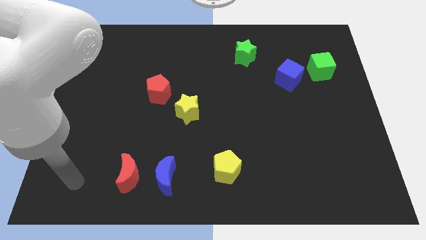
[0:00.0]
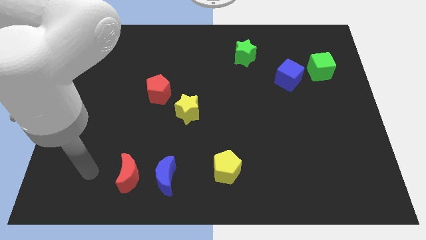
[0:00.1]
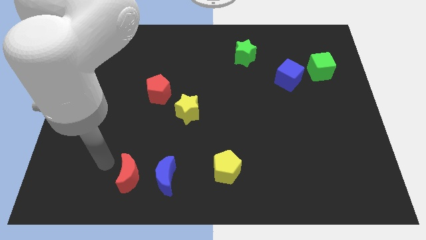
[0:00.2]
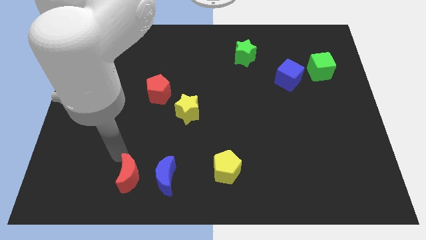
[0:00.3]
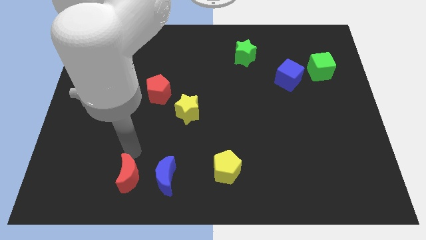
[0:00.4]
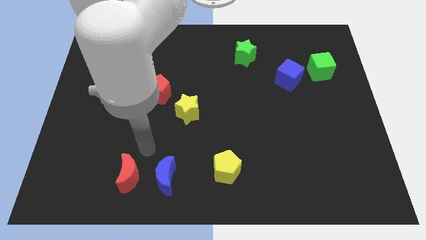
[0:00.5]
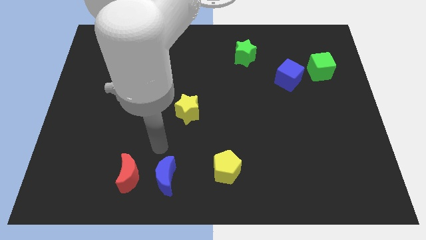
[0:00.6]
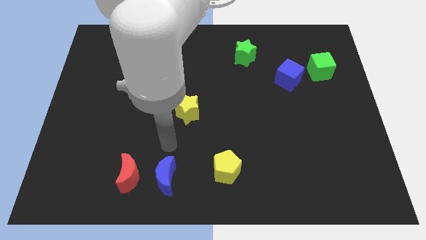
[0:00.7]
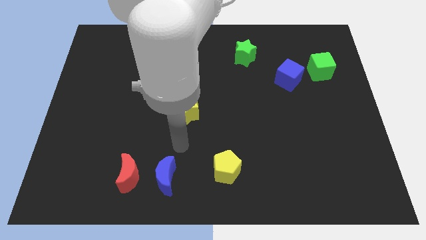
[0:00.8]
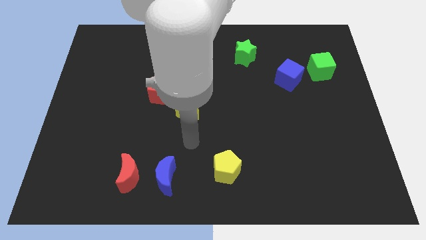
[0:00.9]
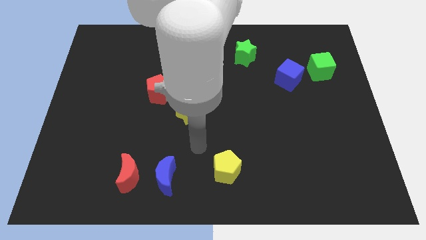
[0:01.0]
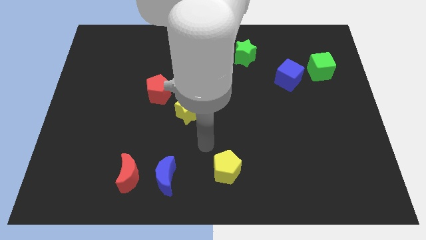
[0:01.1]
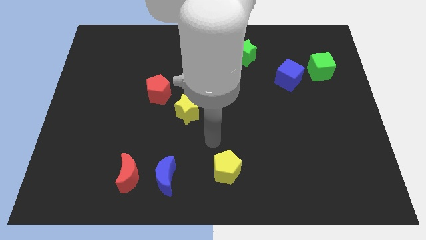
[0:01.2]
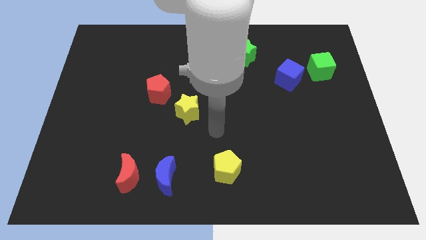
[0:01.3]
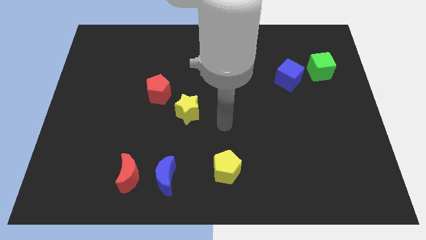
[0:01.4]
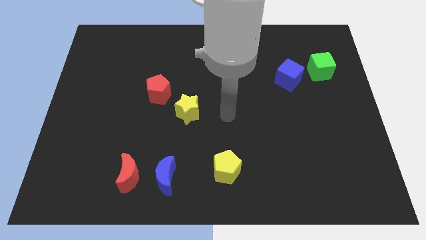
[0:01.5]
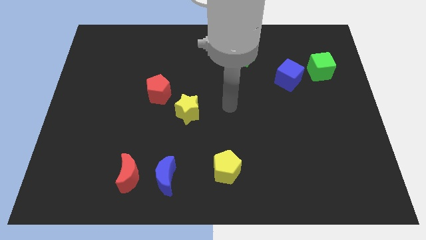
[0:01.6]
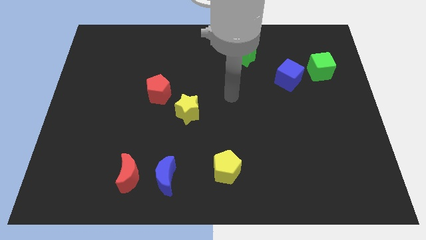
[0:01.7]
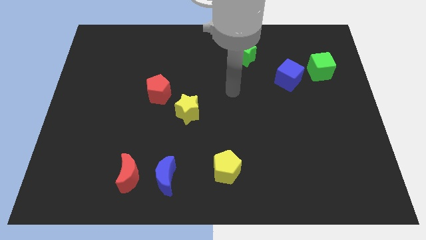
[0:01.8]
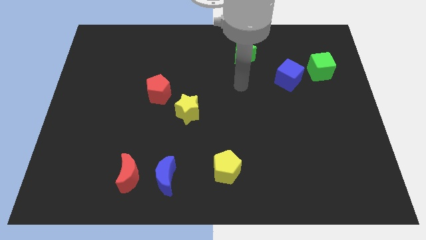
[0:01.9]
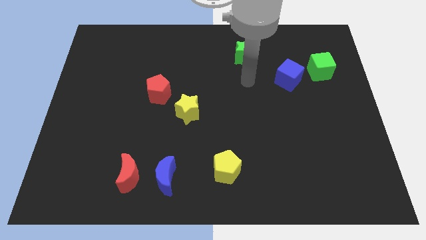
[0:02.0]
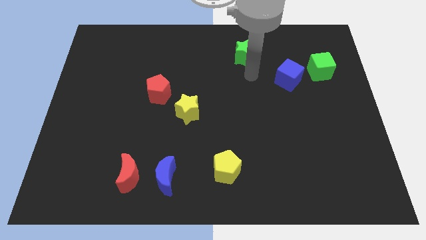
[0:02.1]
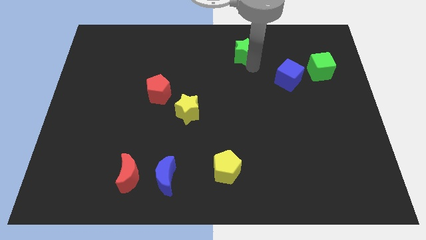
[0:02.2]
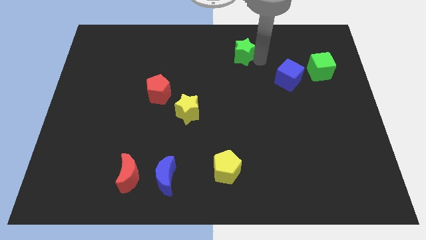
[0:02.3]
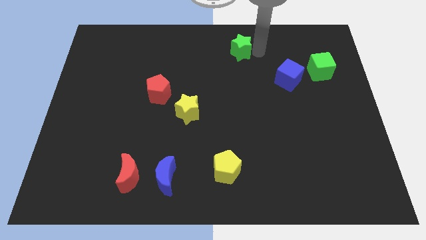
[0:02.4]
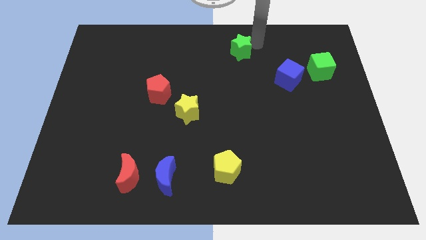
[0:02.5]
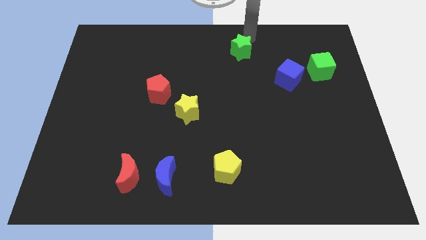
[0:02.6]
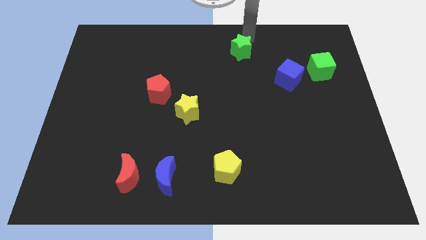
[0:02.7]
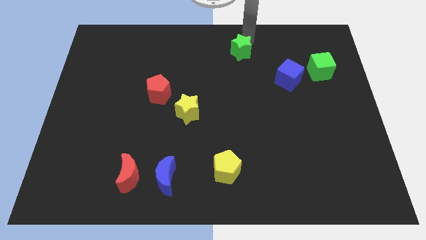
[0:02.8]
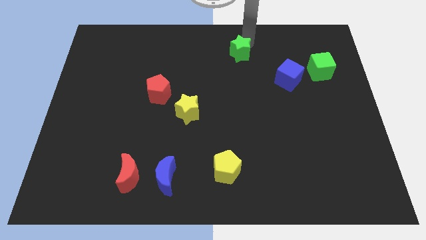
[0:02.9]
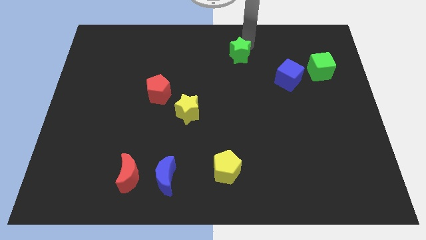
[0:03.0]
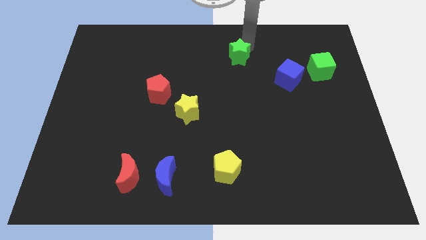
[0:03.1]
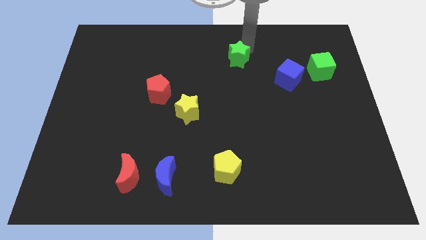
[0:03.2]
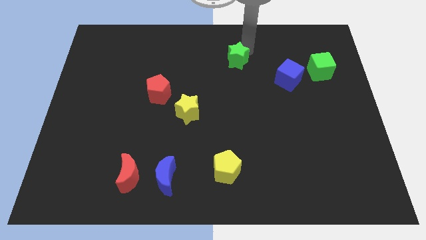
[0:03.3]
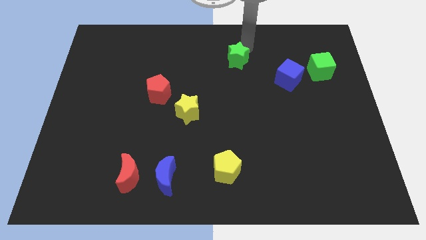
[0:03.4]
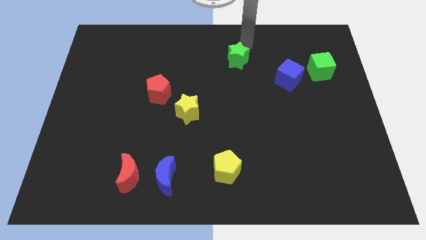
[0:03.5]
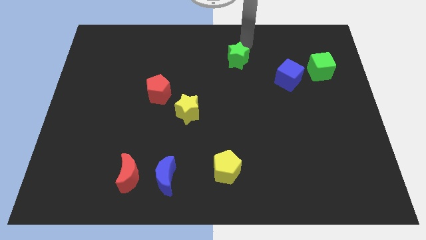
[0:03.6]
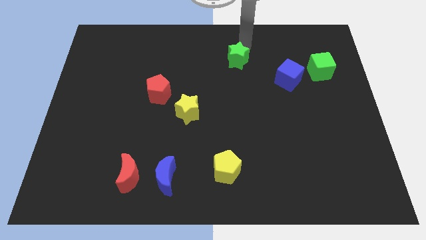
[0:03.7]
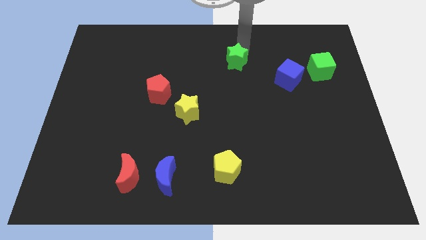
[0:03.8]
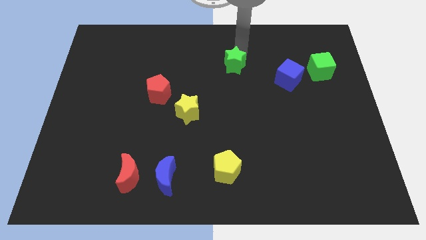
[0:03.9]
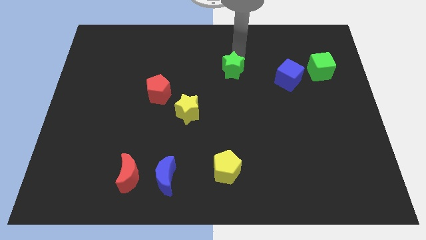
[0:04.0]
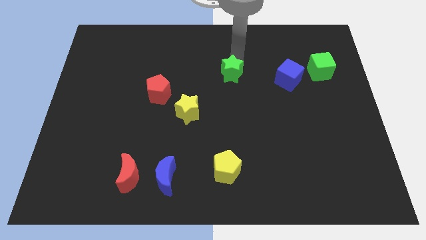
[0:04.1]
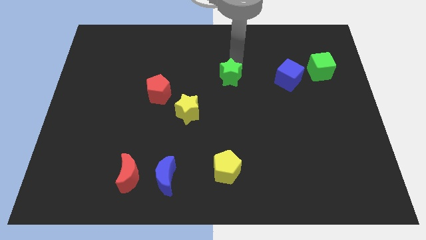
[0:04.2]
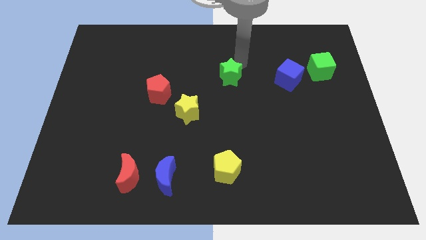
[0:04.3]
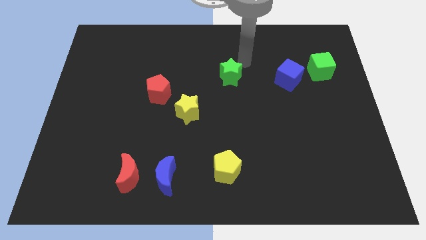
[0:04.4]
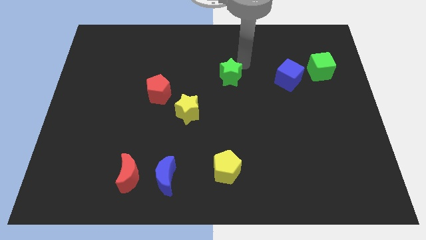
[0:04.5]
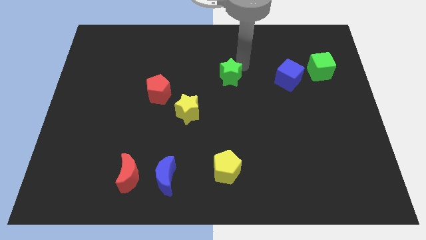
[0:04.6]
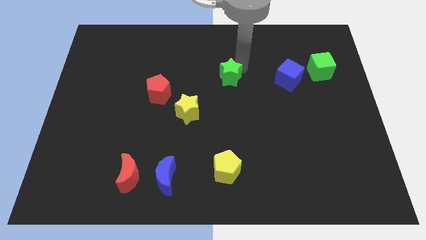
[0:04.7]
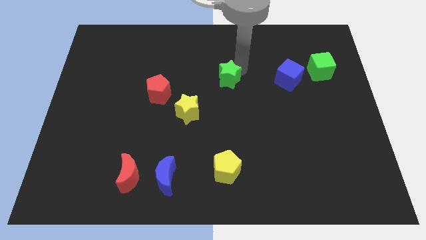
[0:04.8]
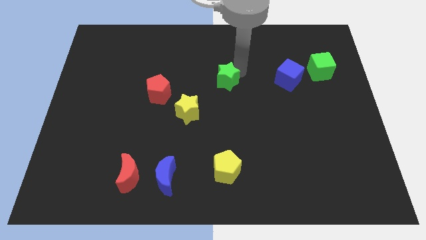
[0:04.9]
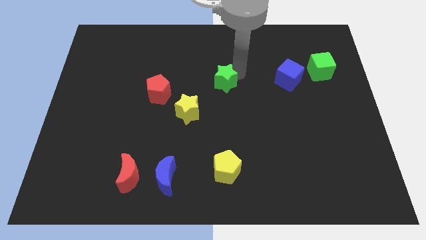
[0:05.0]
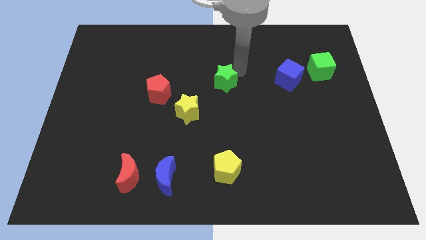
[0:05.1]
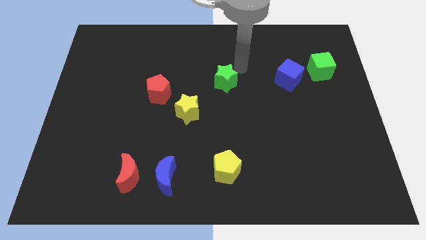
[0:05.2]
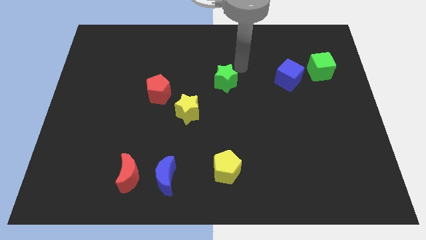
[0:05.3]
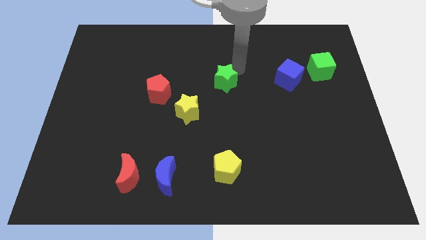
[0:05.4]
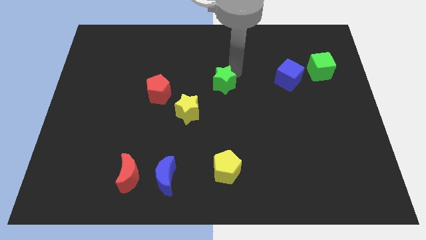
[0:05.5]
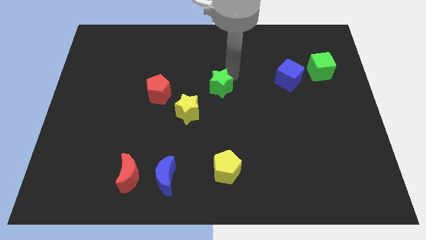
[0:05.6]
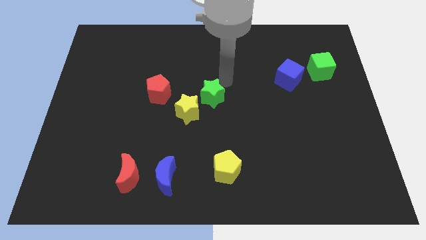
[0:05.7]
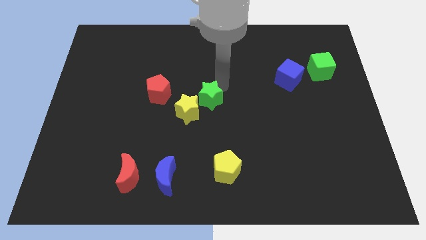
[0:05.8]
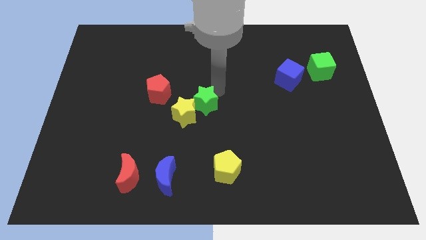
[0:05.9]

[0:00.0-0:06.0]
move the green star towards the yellow star

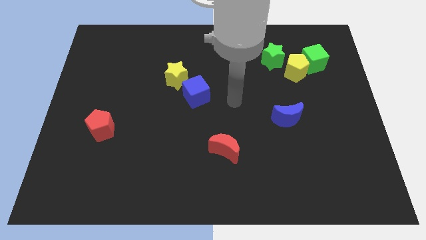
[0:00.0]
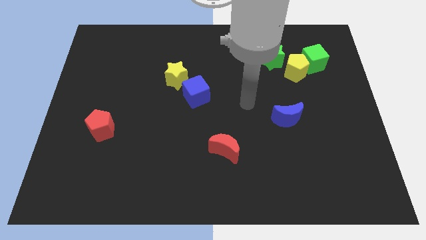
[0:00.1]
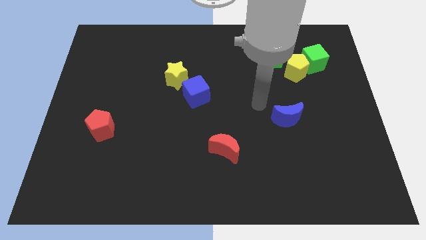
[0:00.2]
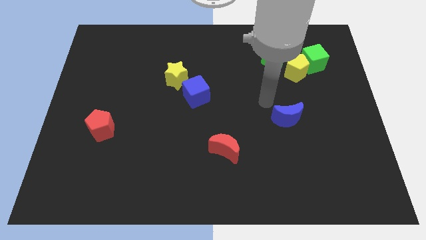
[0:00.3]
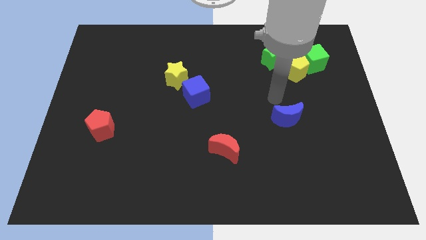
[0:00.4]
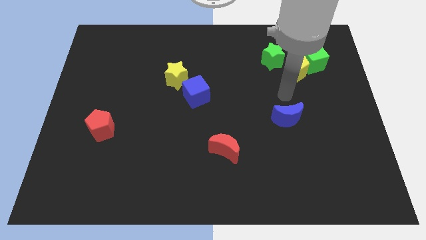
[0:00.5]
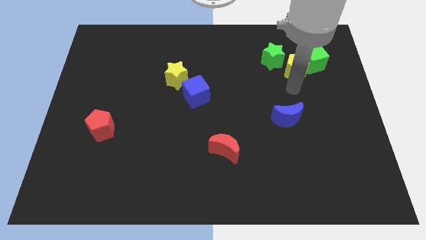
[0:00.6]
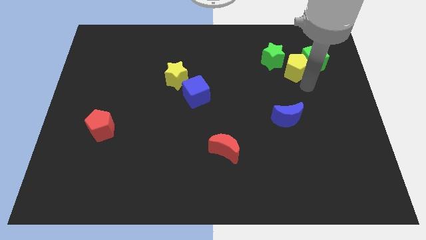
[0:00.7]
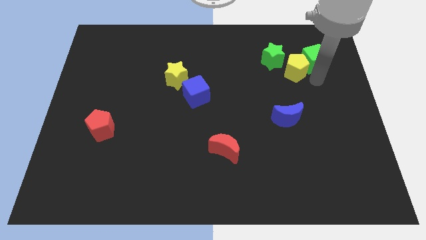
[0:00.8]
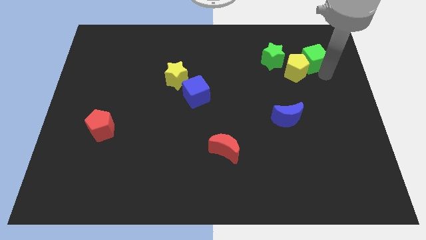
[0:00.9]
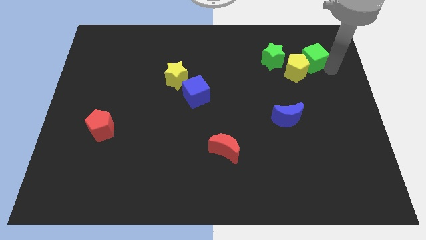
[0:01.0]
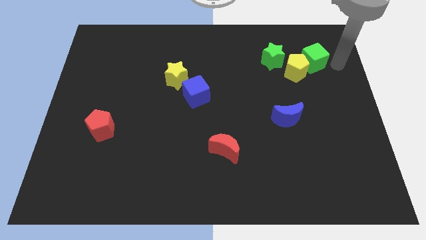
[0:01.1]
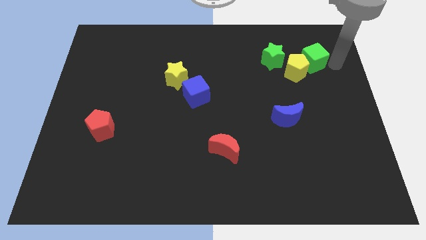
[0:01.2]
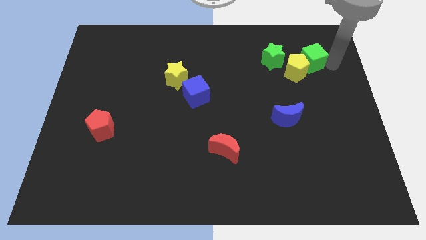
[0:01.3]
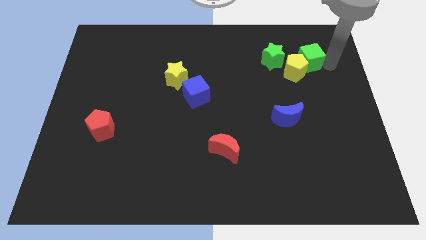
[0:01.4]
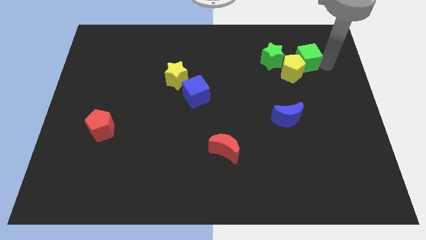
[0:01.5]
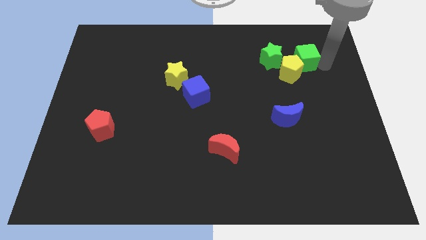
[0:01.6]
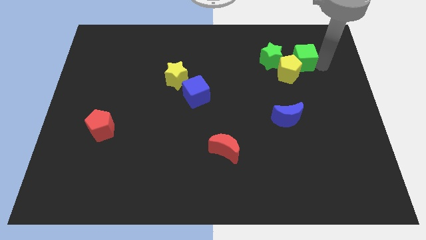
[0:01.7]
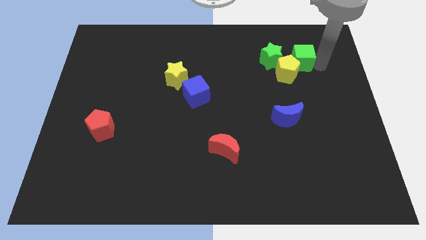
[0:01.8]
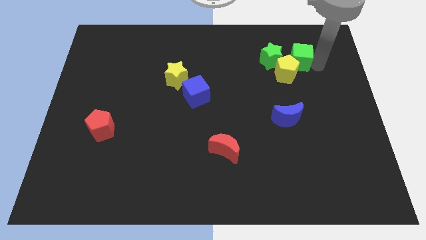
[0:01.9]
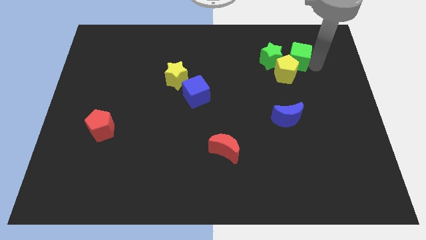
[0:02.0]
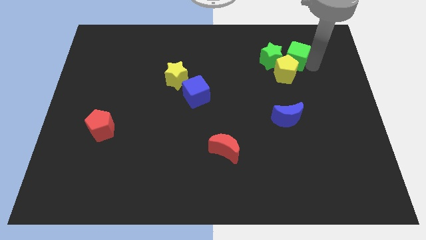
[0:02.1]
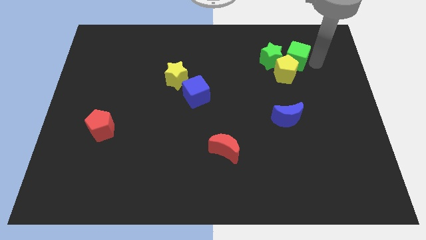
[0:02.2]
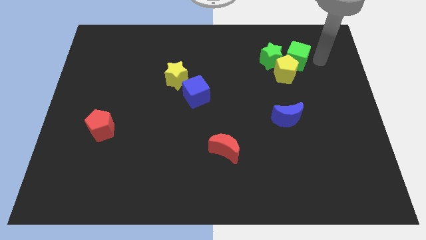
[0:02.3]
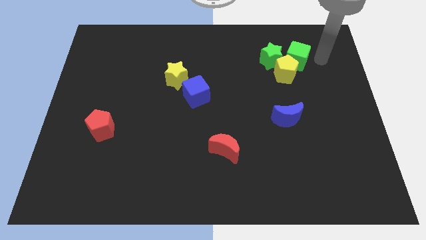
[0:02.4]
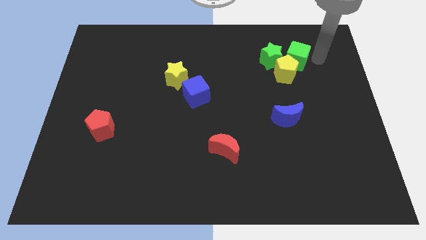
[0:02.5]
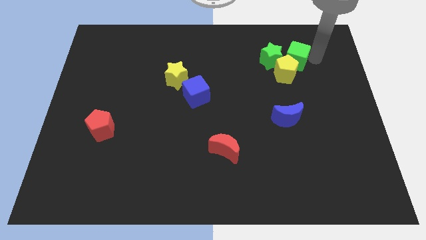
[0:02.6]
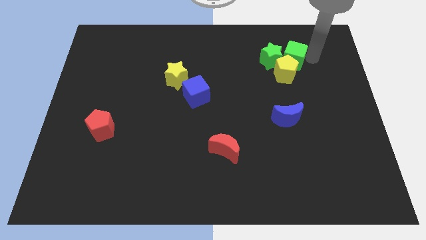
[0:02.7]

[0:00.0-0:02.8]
put the green cube close to the green star
